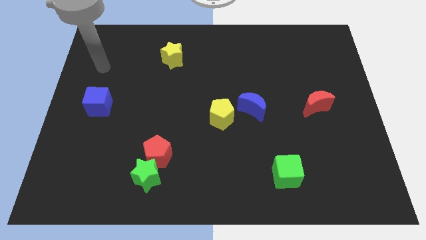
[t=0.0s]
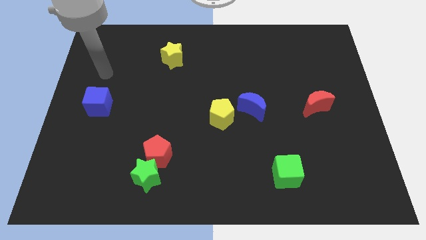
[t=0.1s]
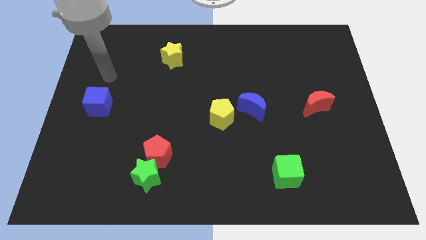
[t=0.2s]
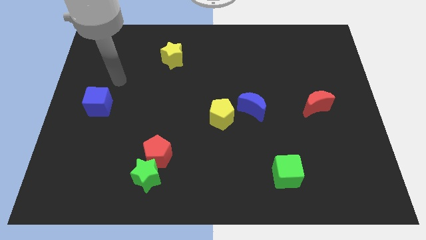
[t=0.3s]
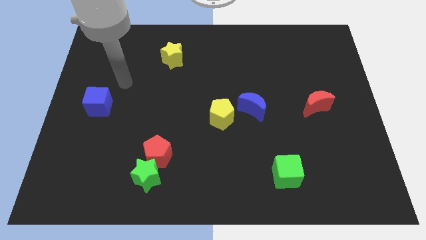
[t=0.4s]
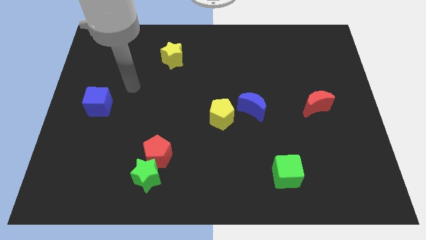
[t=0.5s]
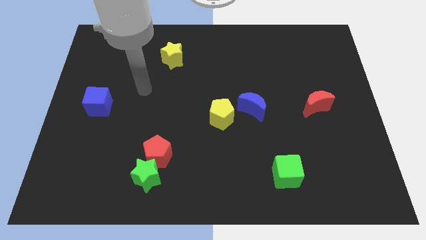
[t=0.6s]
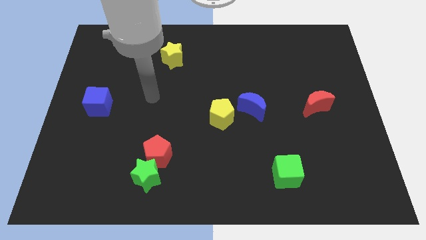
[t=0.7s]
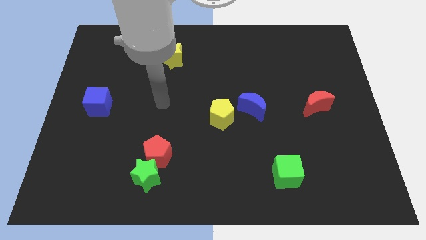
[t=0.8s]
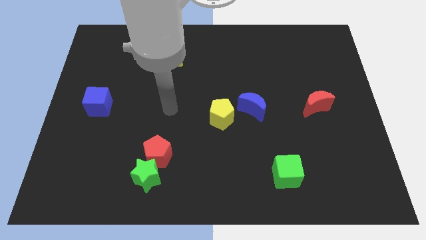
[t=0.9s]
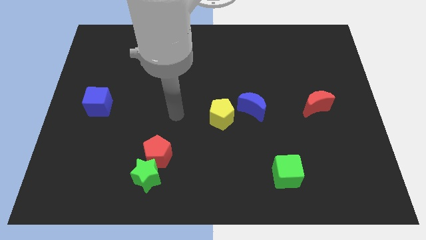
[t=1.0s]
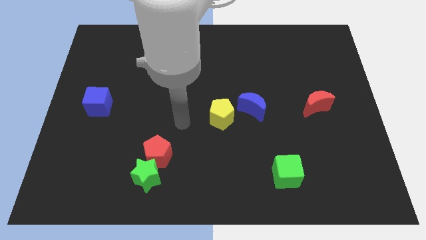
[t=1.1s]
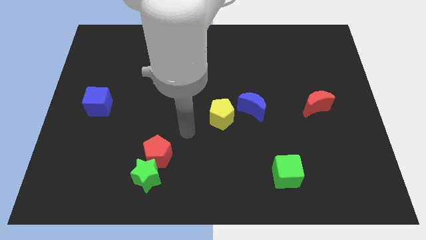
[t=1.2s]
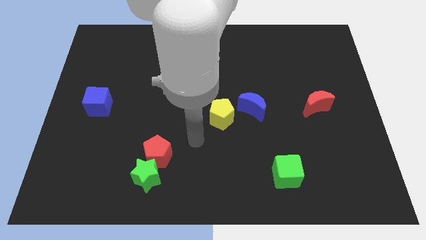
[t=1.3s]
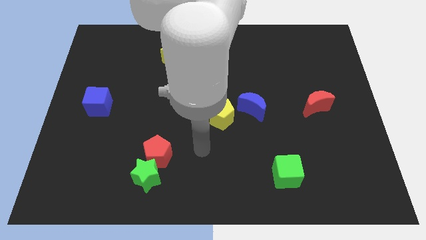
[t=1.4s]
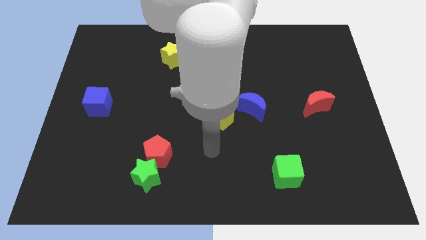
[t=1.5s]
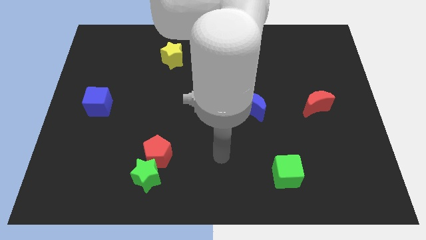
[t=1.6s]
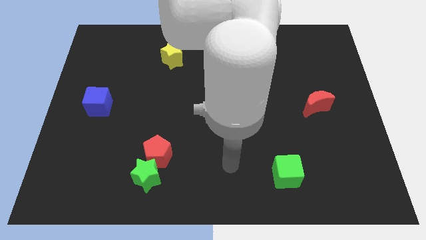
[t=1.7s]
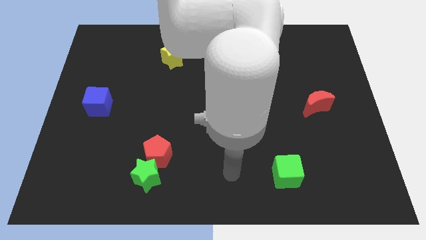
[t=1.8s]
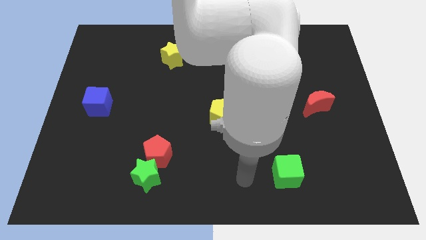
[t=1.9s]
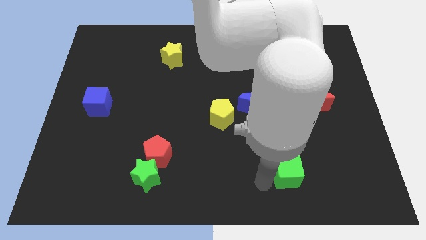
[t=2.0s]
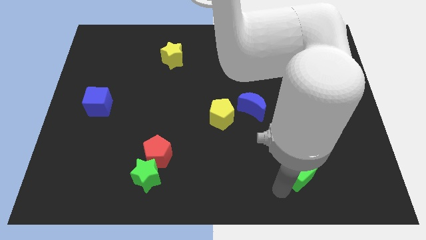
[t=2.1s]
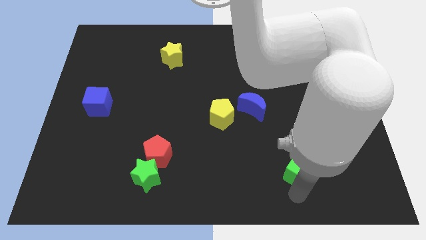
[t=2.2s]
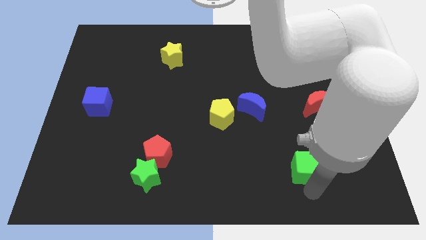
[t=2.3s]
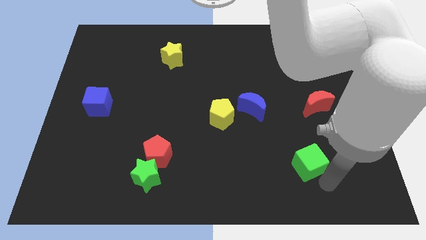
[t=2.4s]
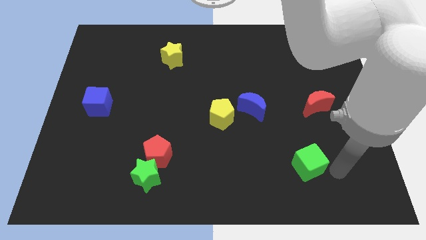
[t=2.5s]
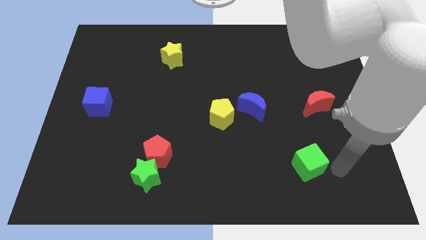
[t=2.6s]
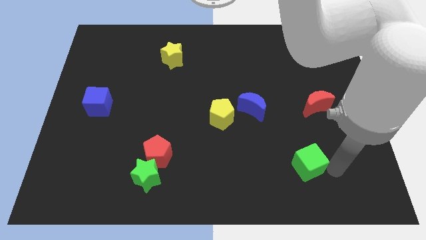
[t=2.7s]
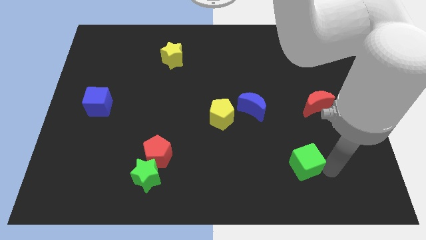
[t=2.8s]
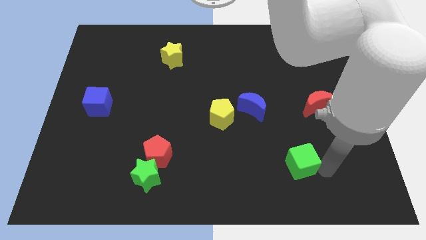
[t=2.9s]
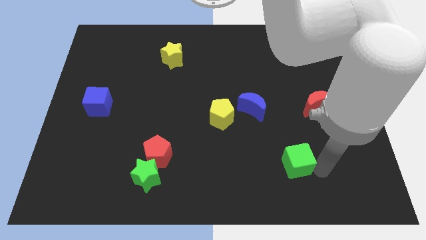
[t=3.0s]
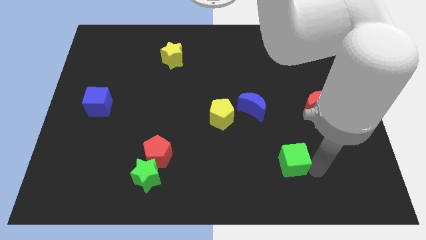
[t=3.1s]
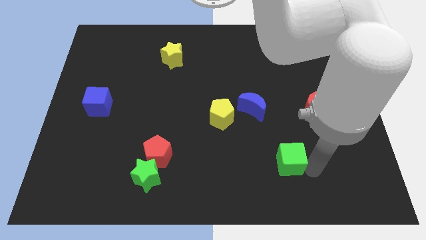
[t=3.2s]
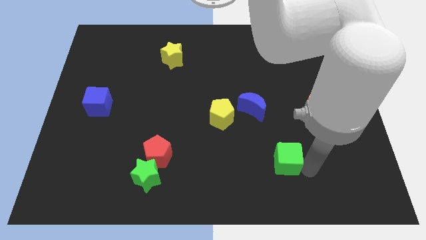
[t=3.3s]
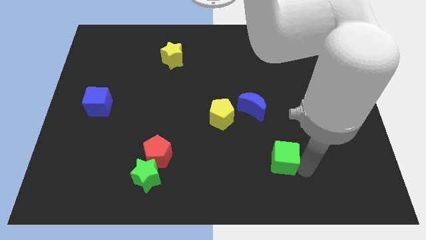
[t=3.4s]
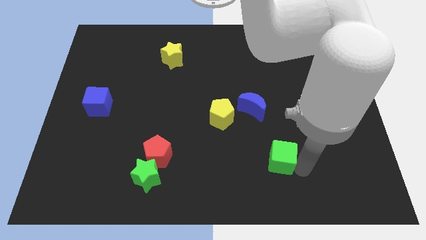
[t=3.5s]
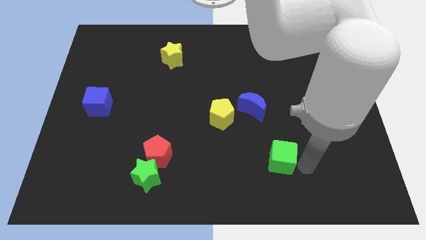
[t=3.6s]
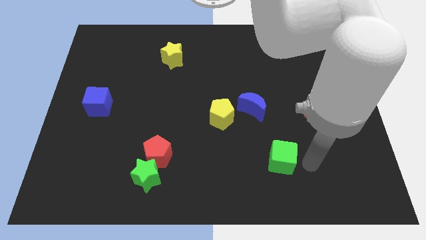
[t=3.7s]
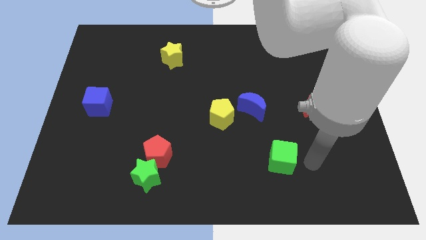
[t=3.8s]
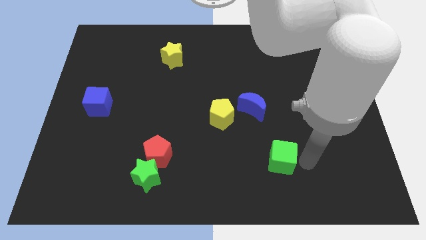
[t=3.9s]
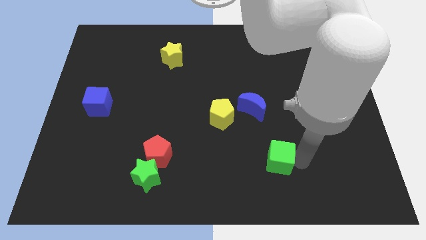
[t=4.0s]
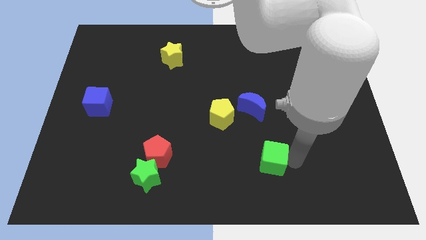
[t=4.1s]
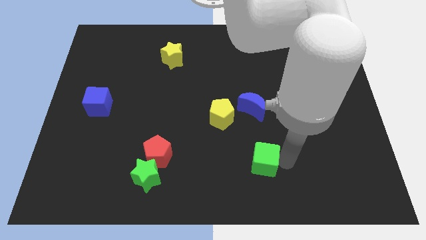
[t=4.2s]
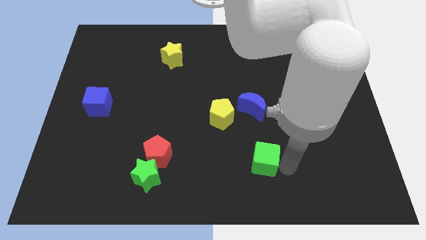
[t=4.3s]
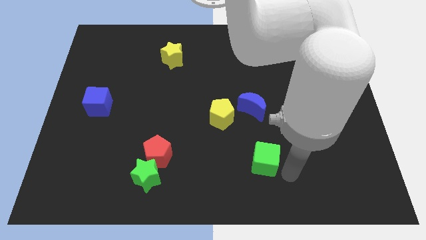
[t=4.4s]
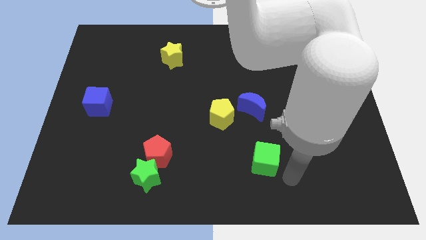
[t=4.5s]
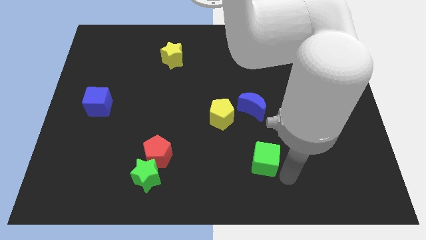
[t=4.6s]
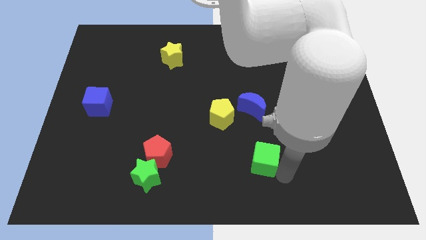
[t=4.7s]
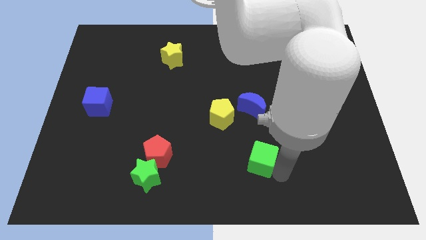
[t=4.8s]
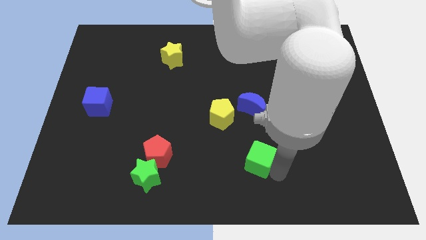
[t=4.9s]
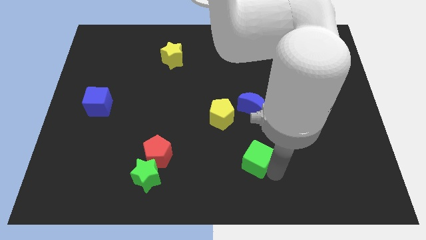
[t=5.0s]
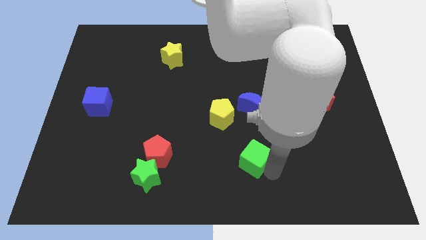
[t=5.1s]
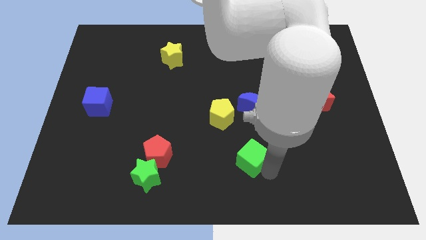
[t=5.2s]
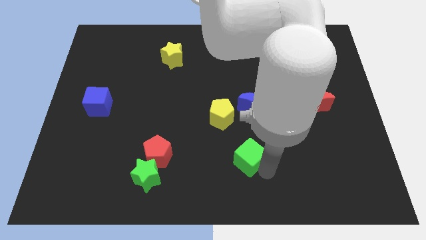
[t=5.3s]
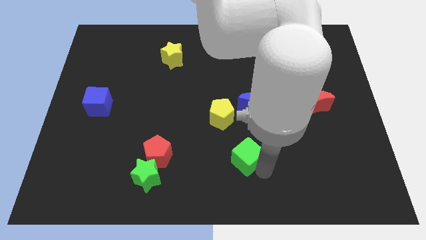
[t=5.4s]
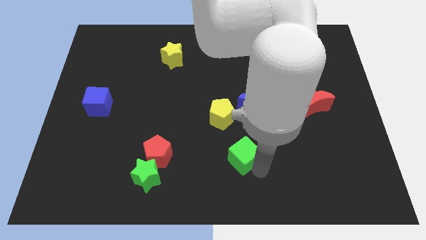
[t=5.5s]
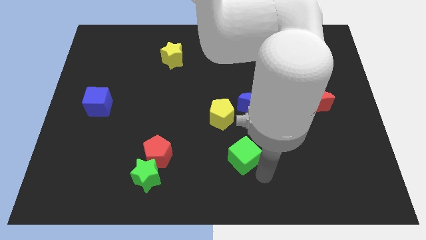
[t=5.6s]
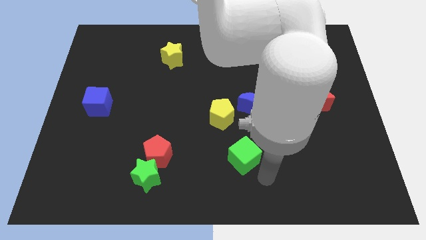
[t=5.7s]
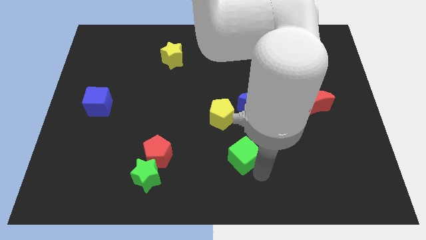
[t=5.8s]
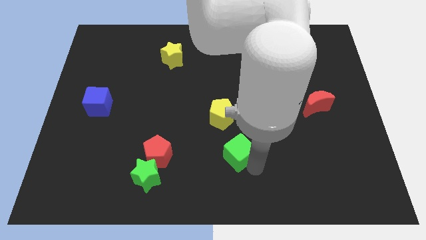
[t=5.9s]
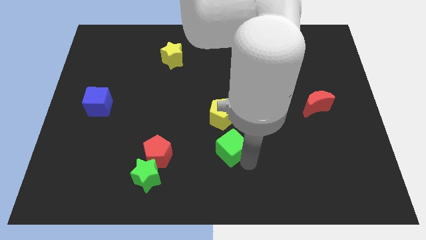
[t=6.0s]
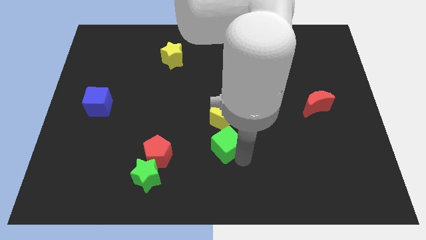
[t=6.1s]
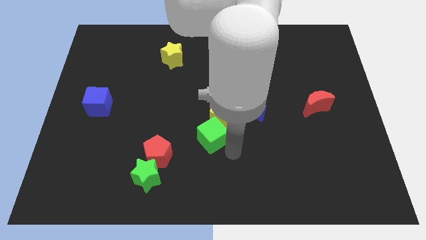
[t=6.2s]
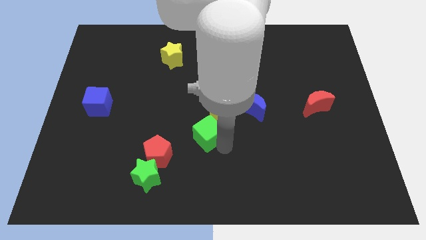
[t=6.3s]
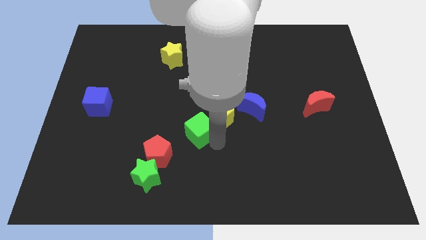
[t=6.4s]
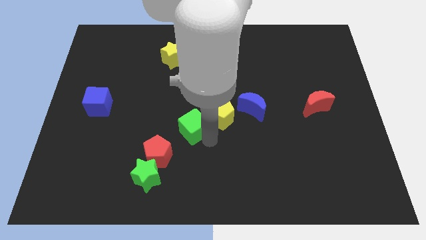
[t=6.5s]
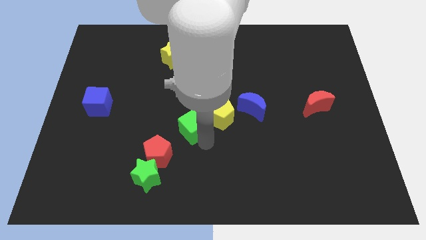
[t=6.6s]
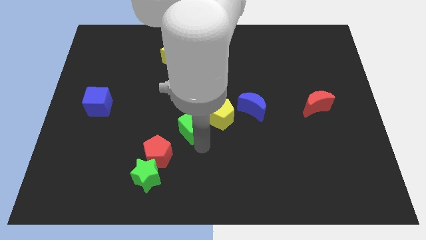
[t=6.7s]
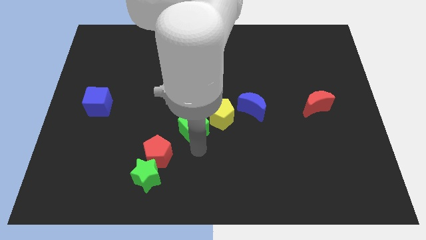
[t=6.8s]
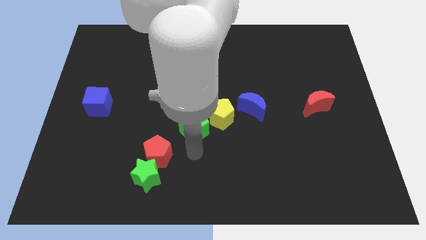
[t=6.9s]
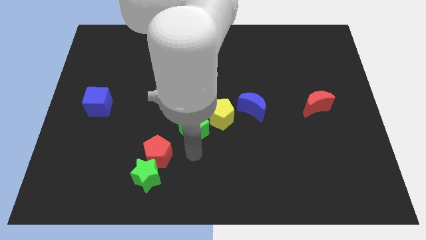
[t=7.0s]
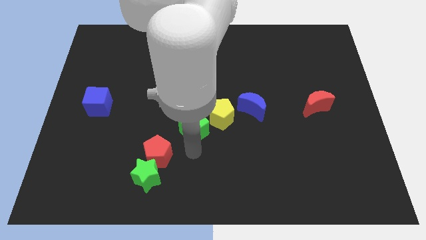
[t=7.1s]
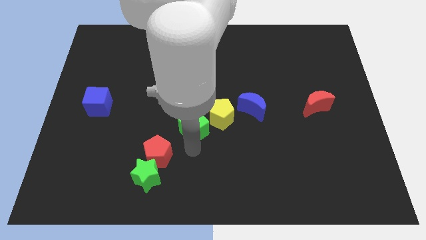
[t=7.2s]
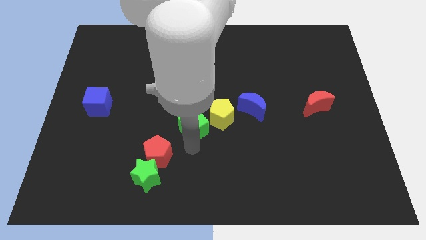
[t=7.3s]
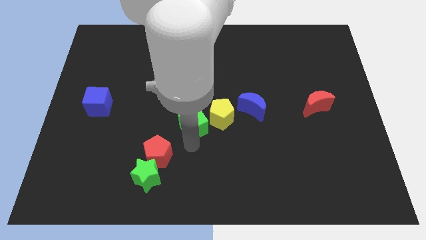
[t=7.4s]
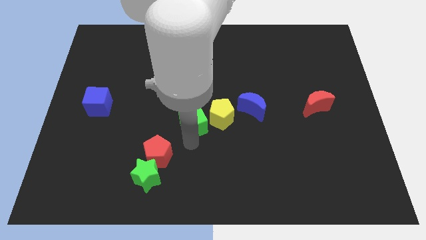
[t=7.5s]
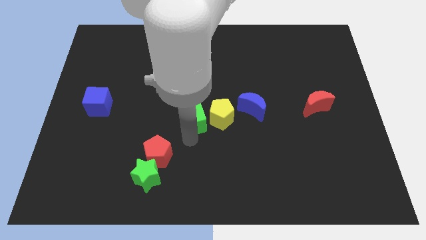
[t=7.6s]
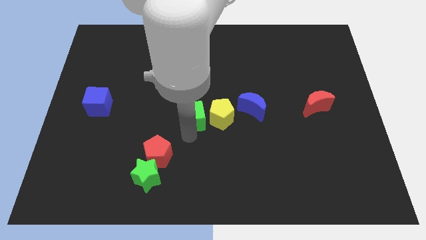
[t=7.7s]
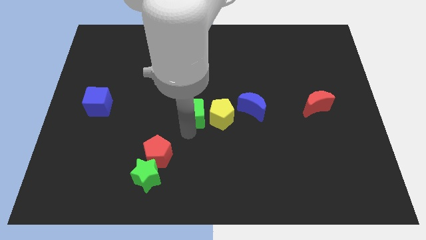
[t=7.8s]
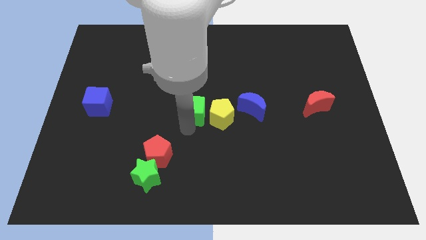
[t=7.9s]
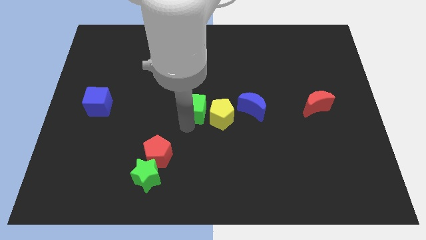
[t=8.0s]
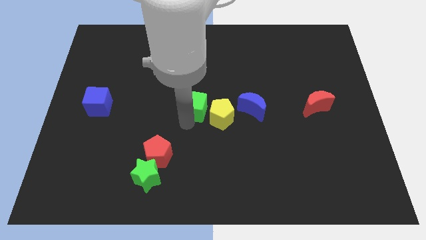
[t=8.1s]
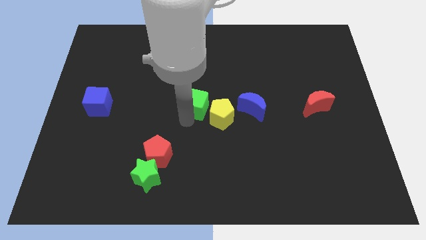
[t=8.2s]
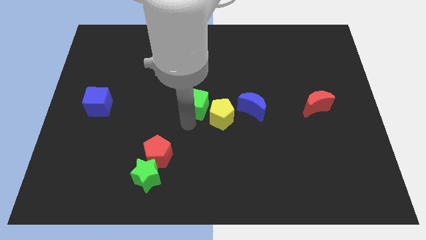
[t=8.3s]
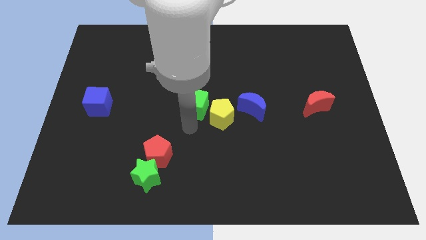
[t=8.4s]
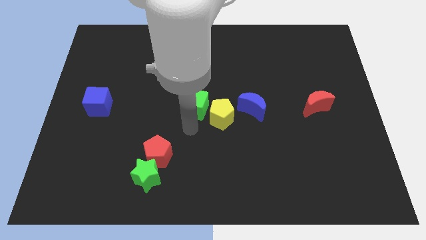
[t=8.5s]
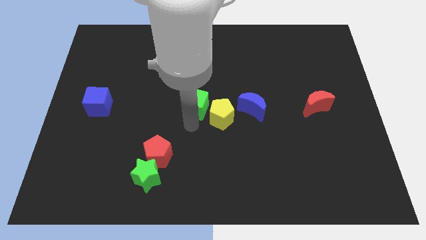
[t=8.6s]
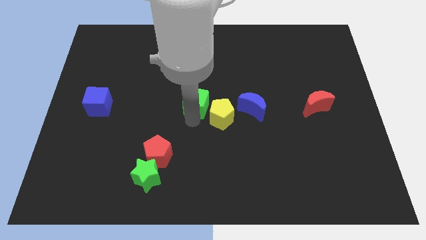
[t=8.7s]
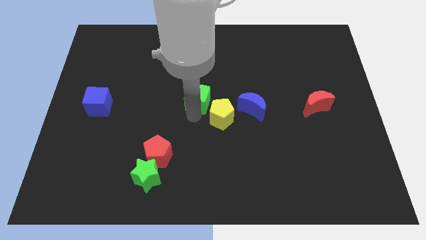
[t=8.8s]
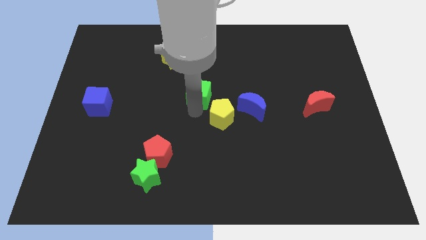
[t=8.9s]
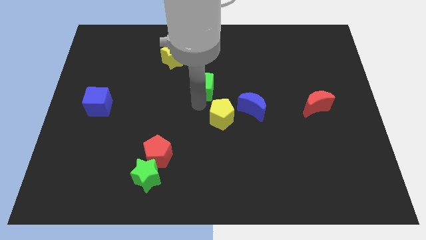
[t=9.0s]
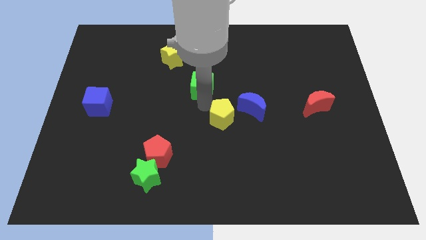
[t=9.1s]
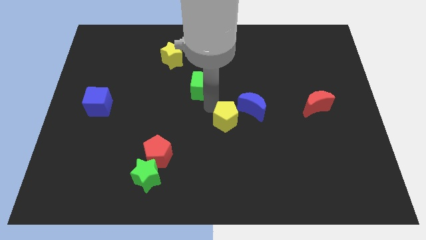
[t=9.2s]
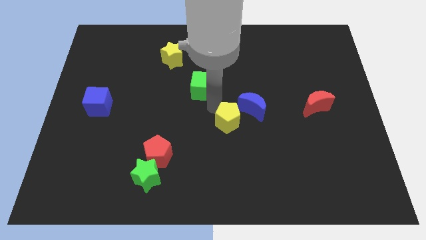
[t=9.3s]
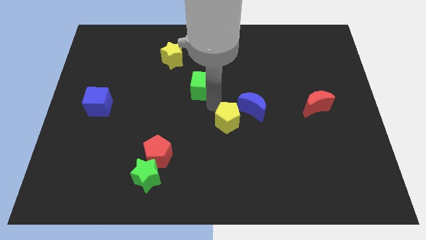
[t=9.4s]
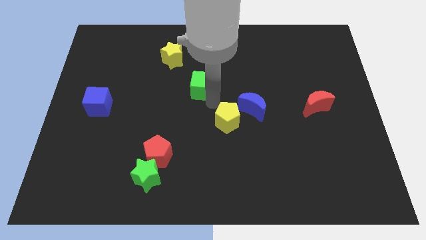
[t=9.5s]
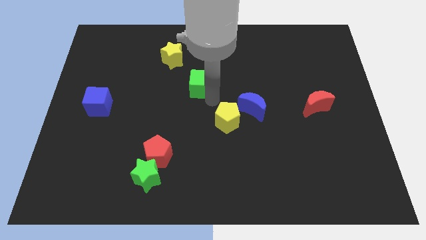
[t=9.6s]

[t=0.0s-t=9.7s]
put the green cube to the bottom right of the yellow star
